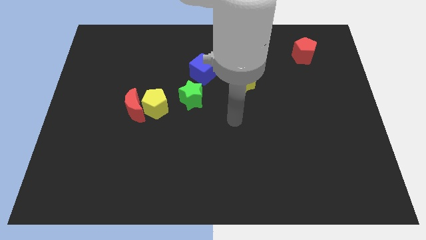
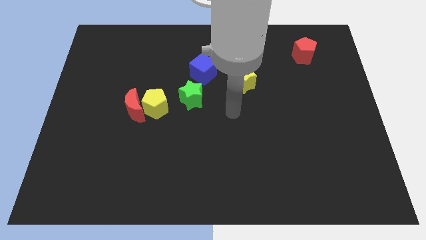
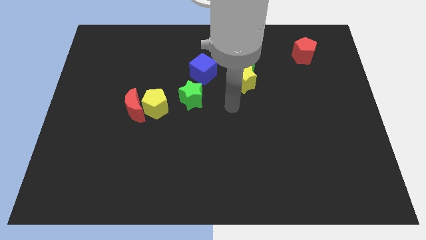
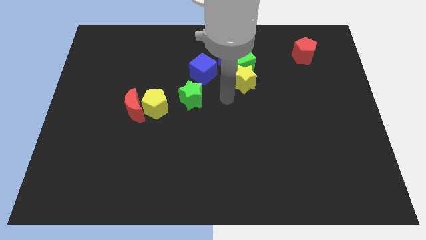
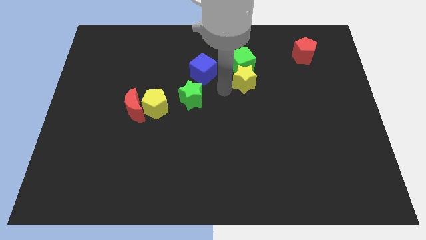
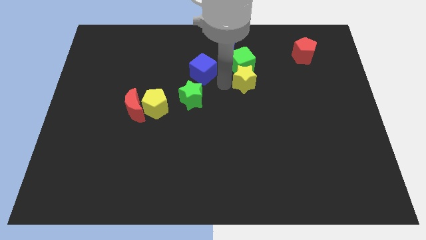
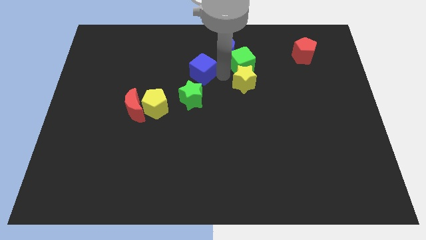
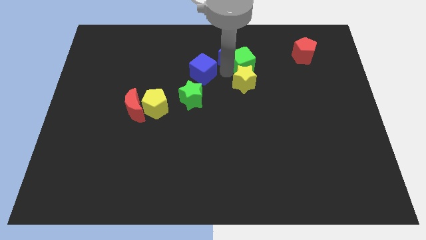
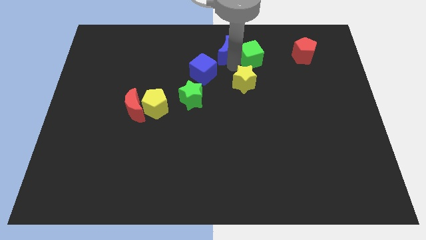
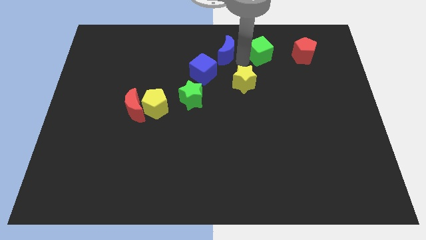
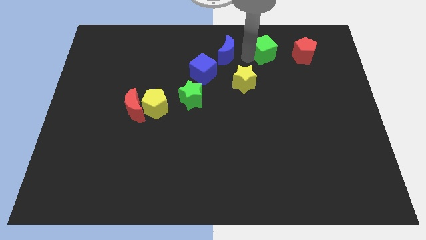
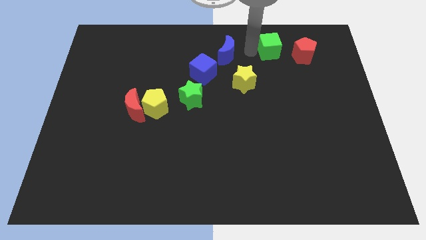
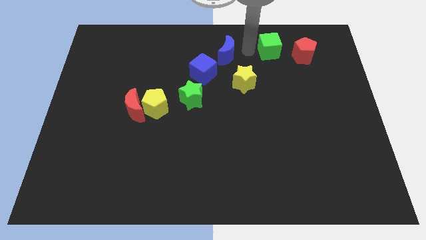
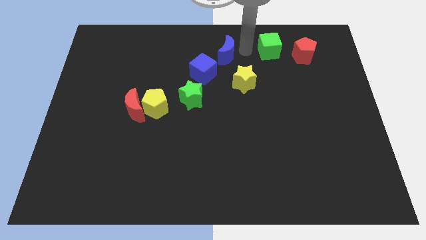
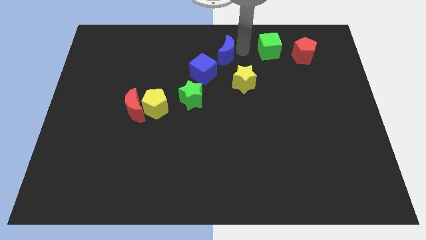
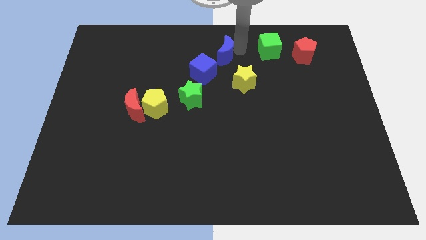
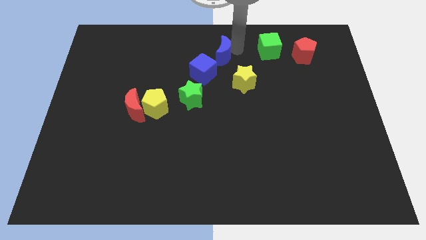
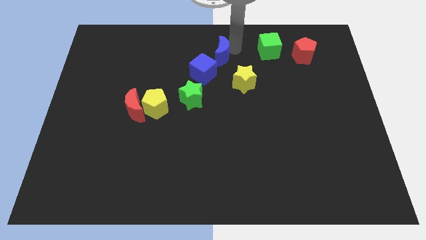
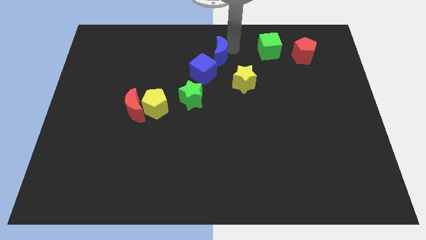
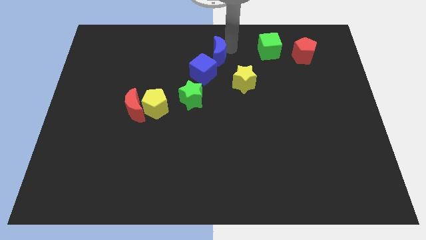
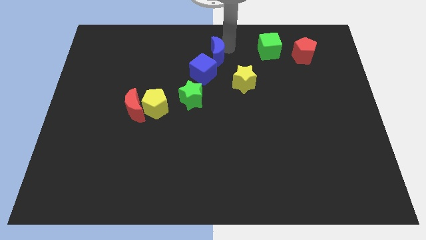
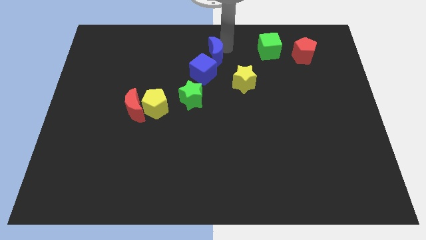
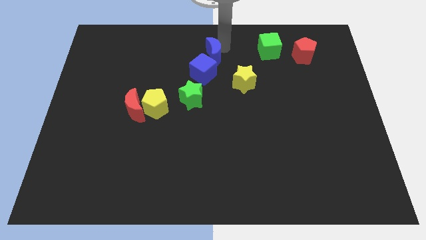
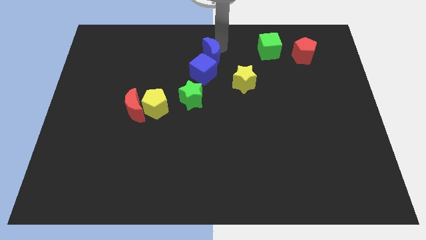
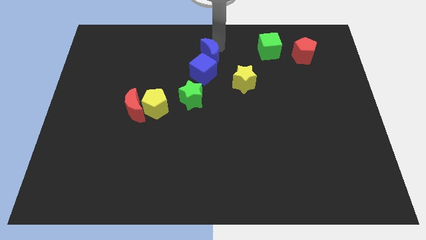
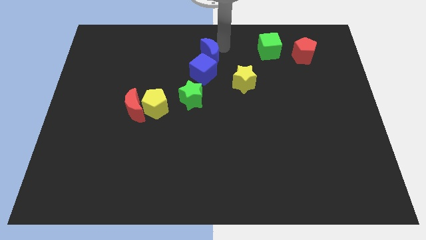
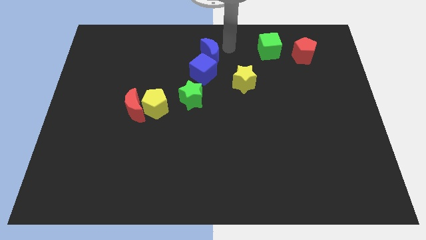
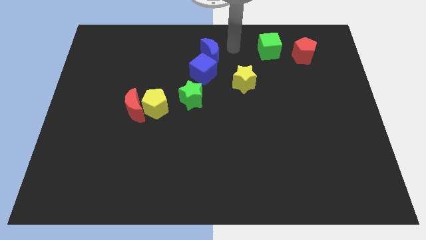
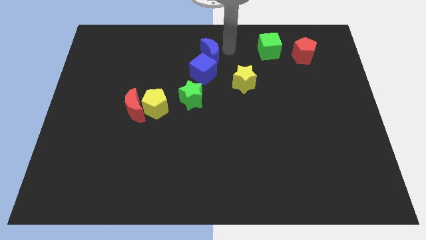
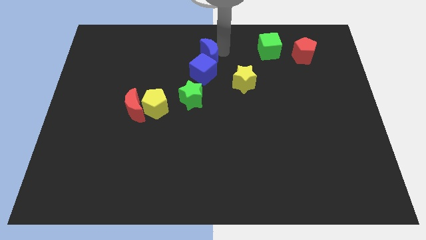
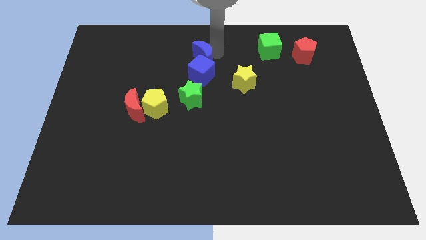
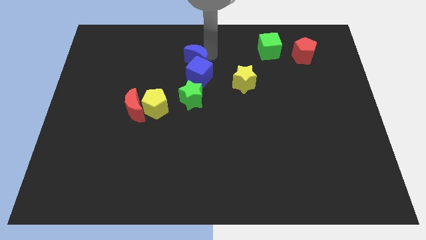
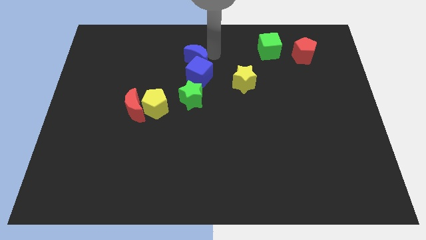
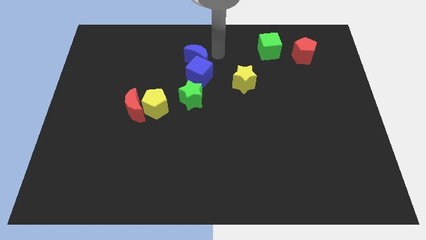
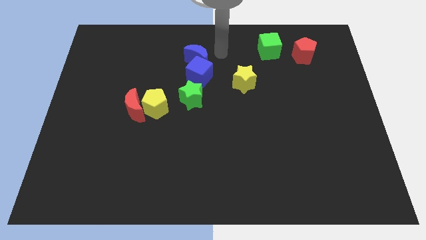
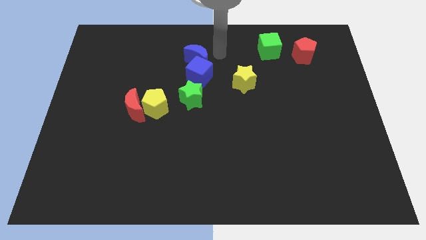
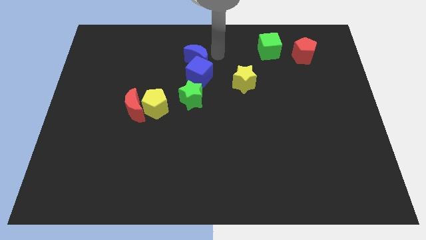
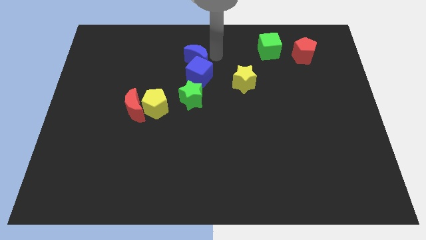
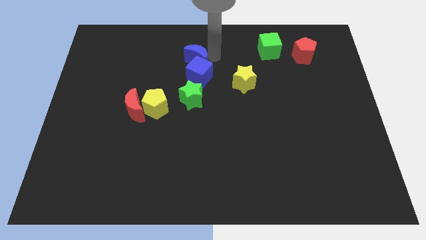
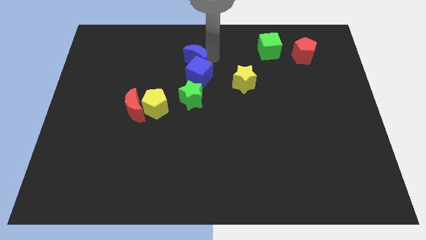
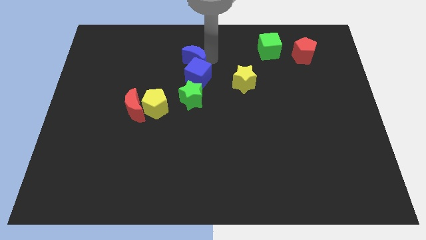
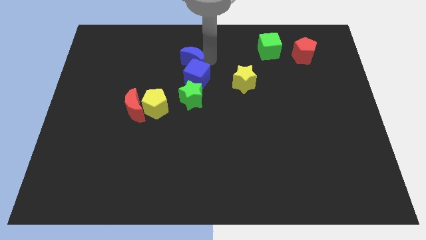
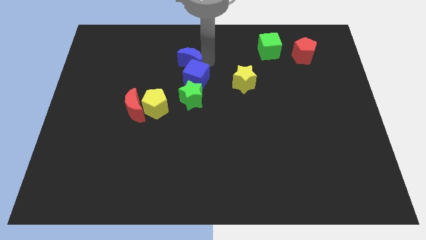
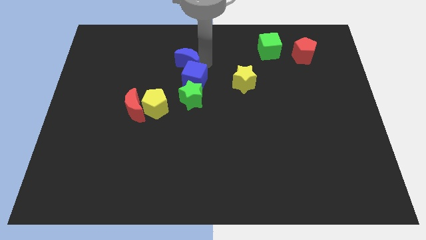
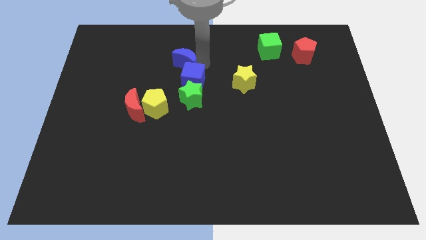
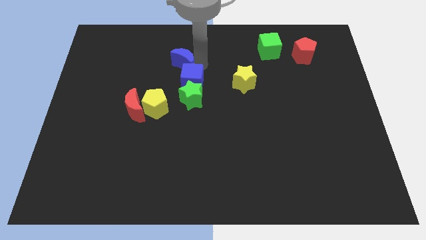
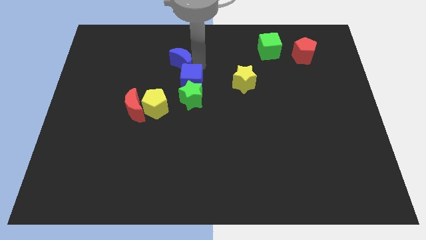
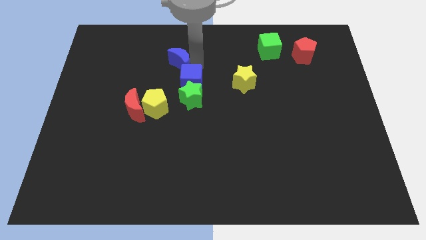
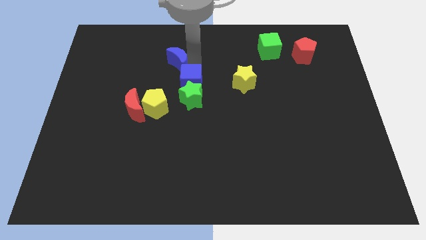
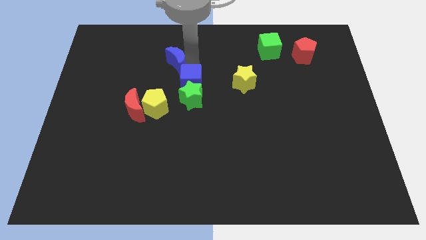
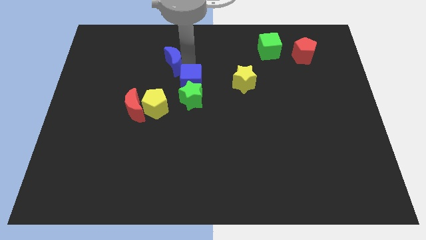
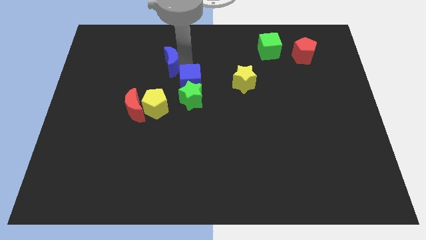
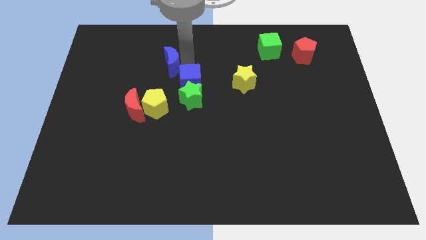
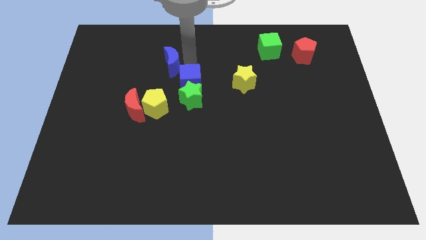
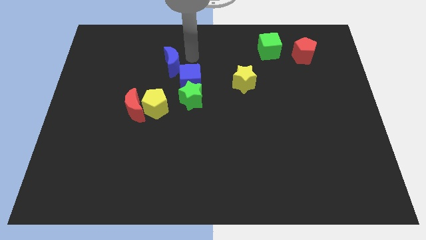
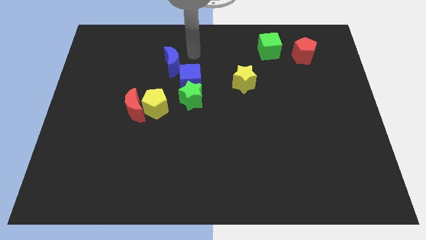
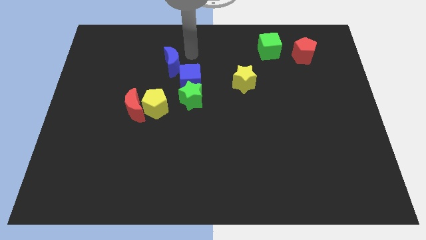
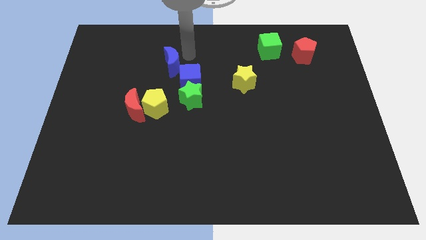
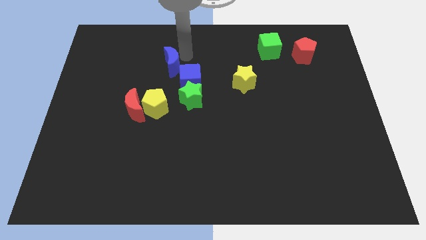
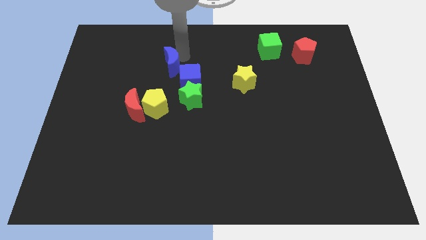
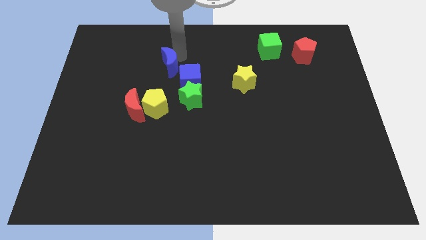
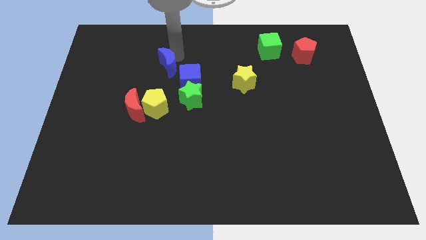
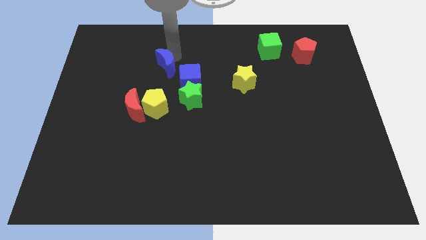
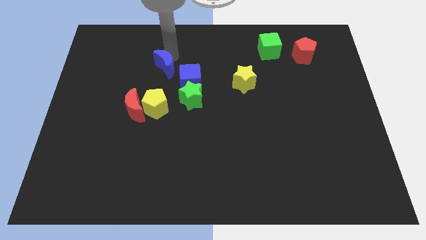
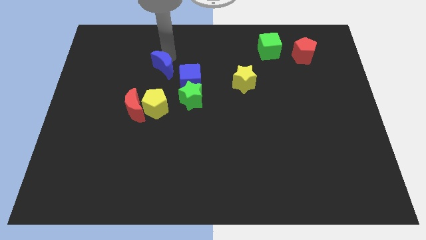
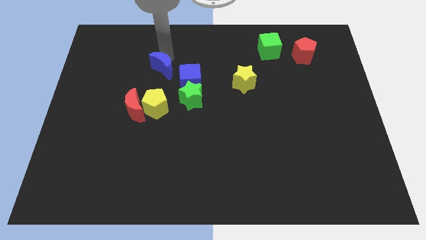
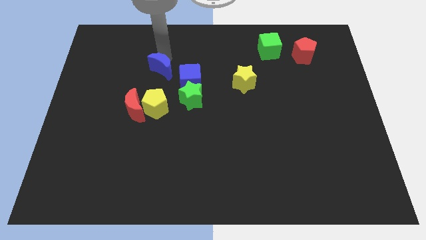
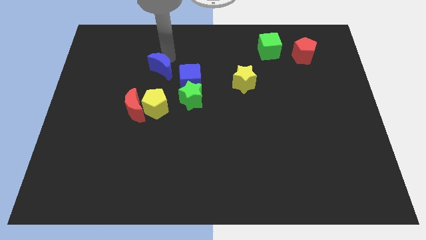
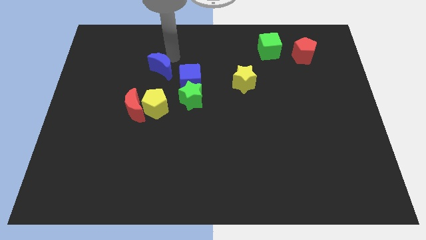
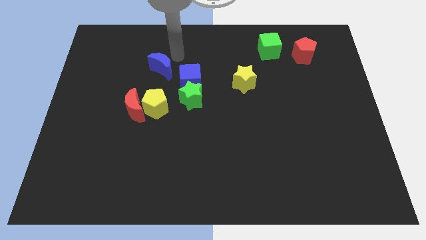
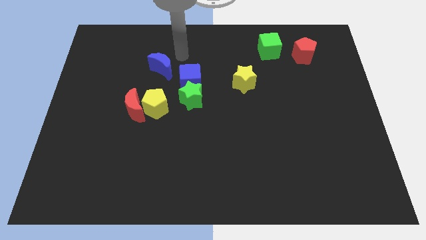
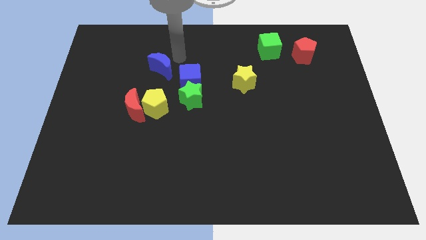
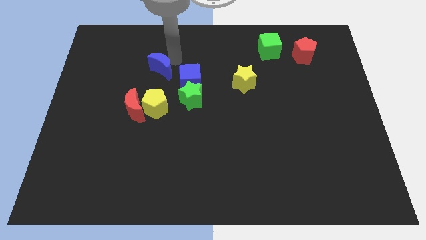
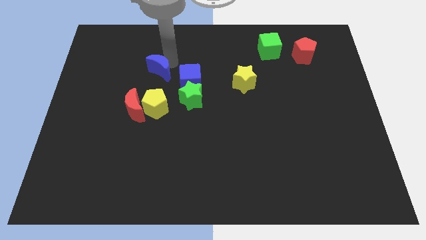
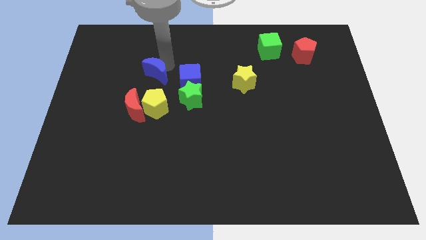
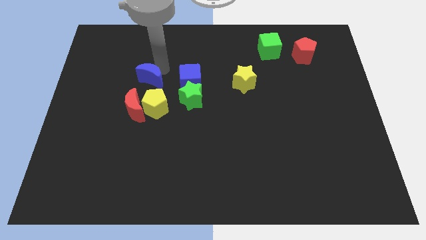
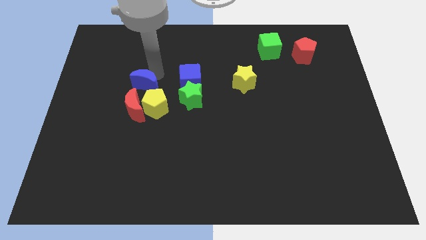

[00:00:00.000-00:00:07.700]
push the blue moon down and left diagonally

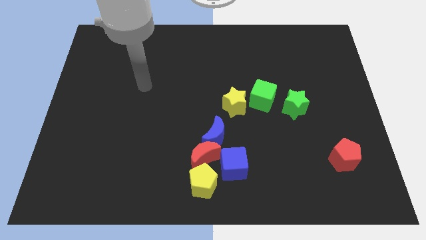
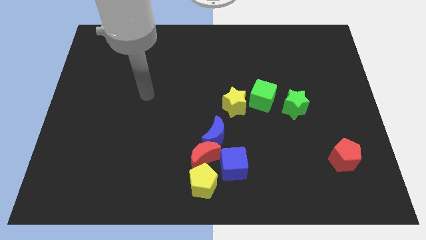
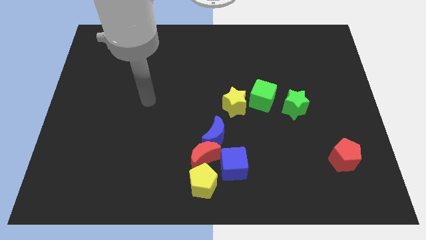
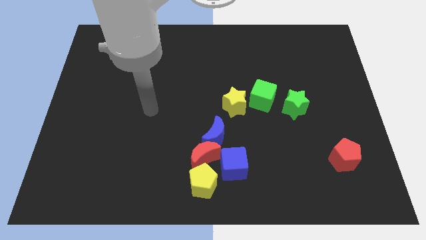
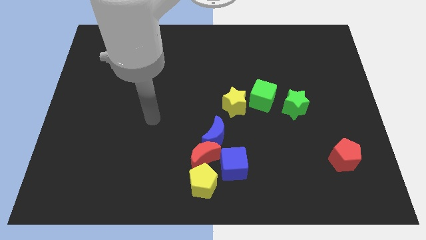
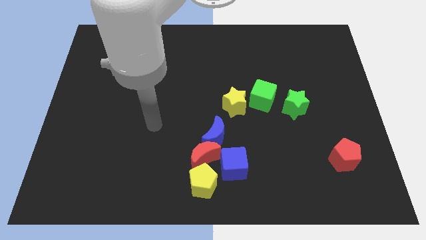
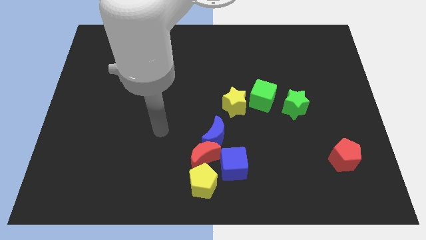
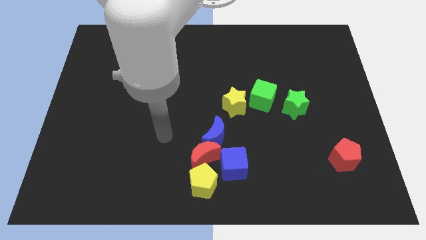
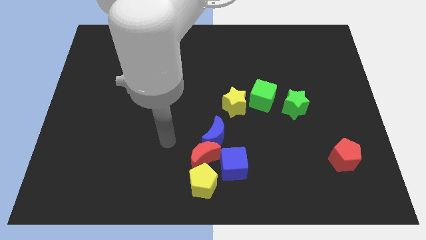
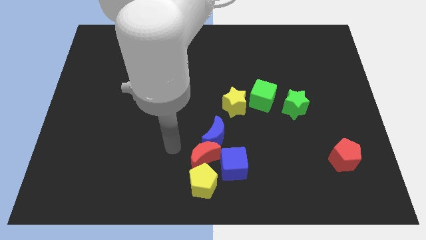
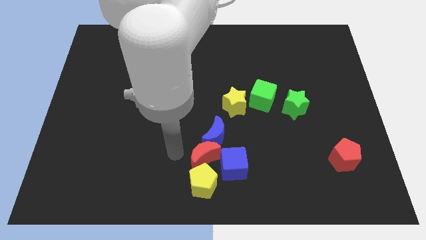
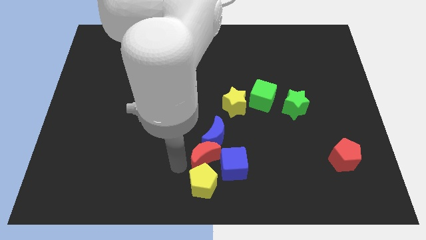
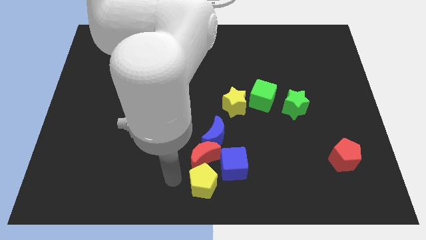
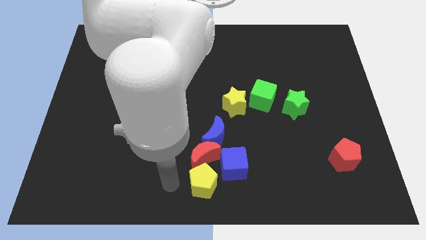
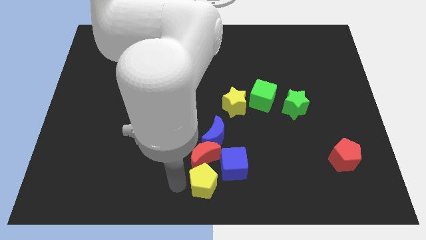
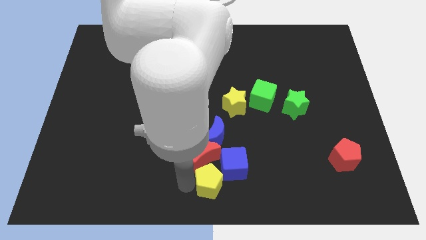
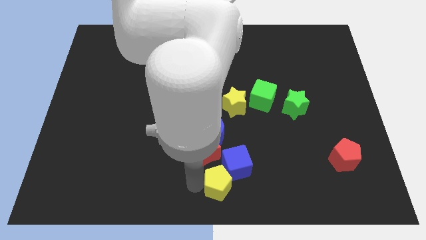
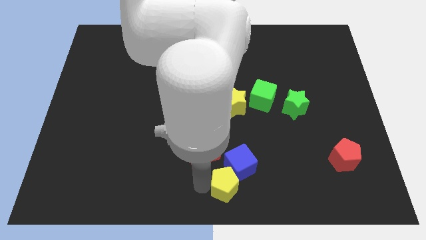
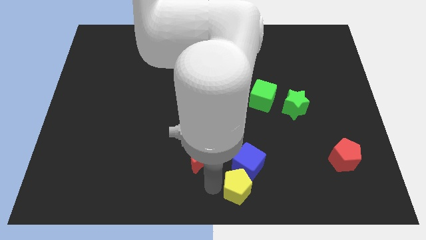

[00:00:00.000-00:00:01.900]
slightly move the yellow pentagon right
